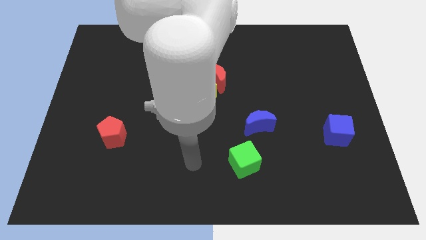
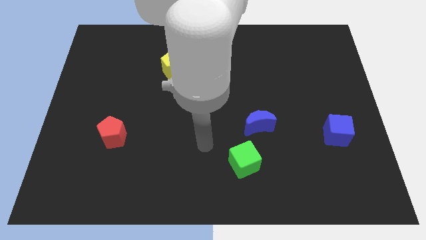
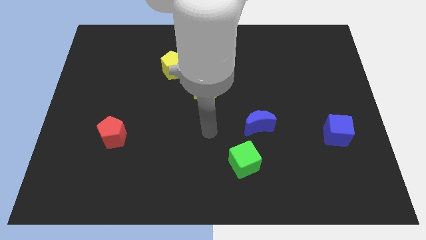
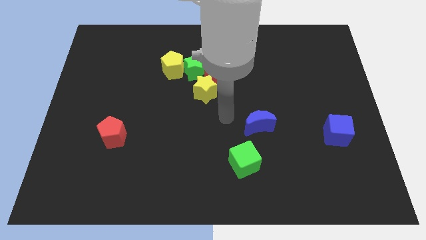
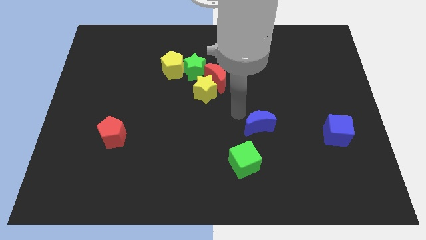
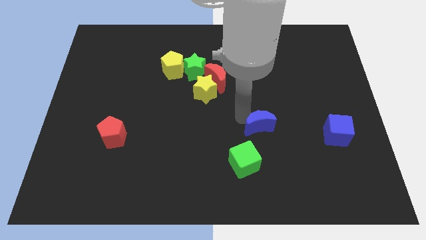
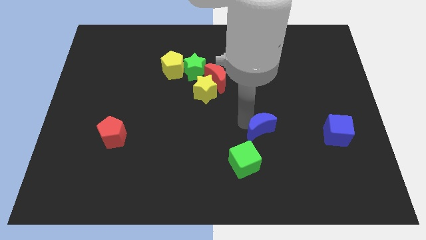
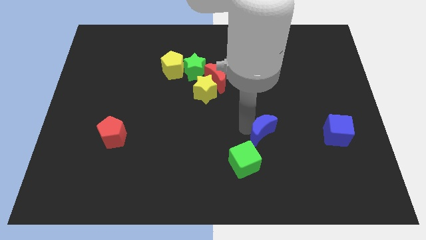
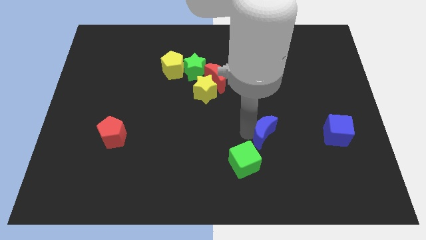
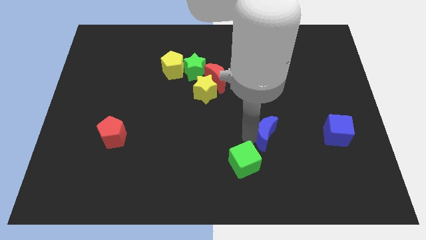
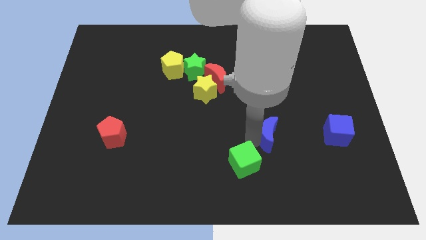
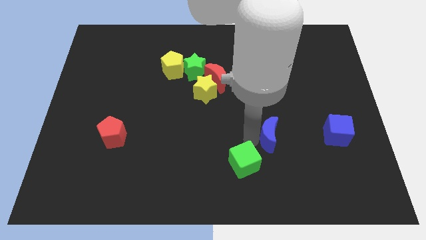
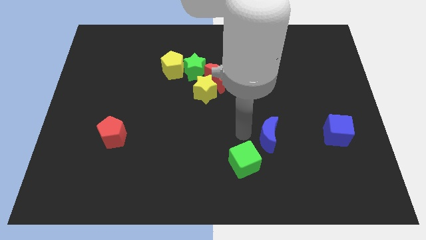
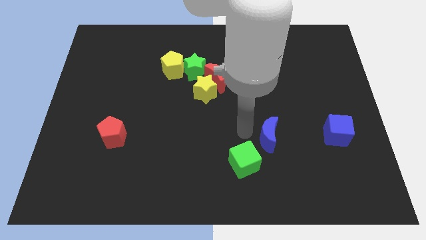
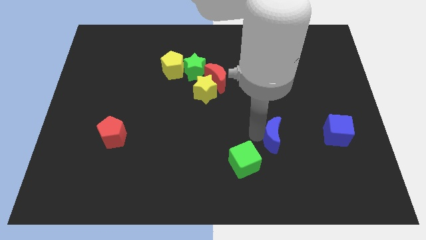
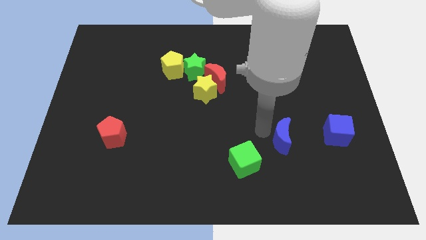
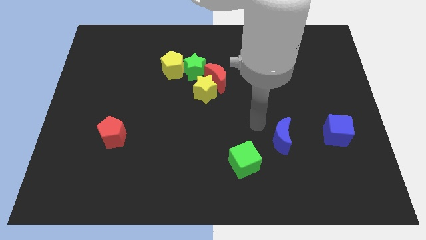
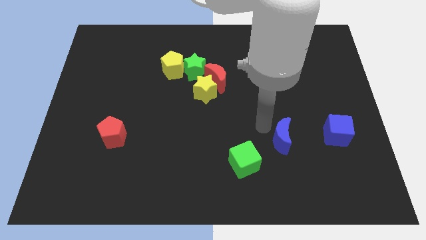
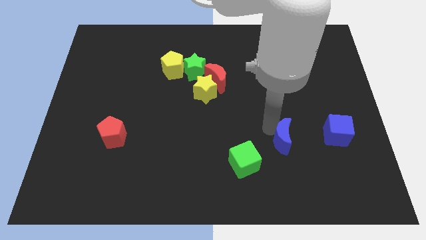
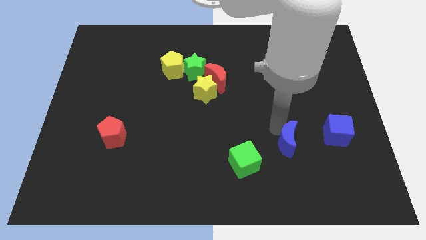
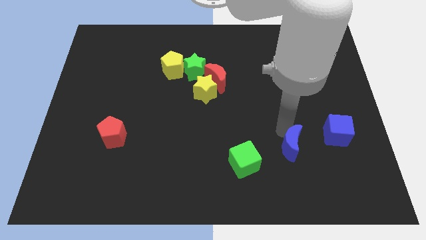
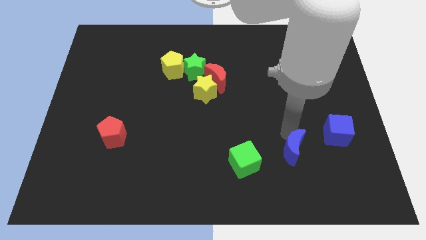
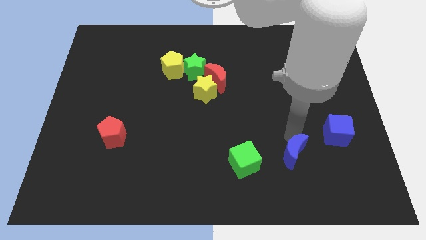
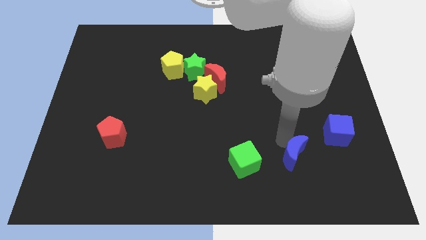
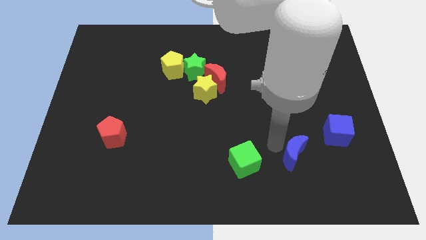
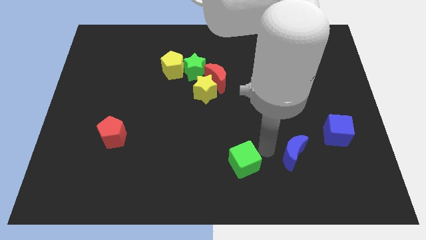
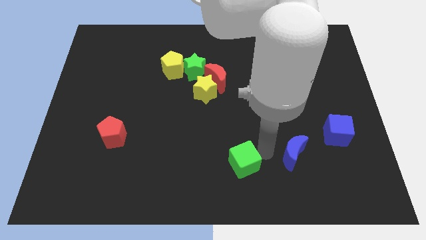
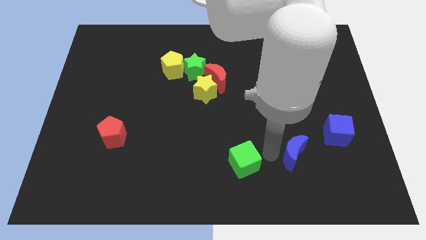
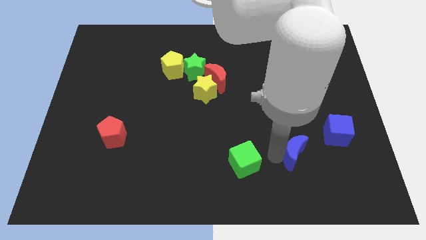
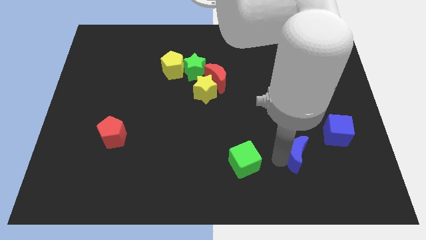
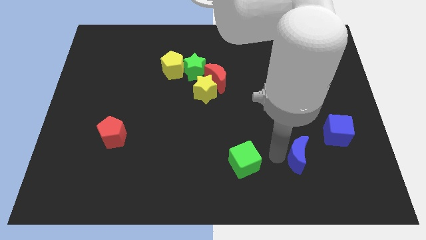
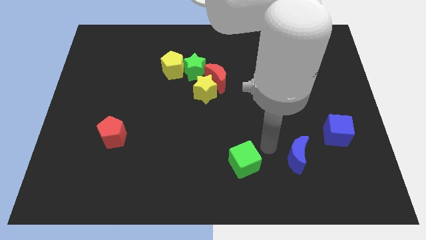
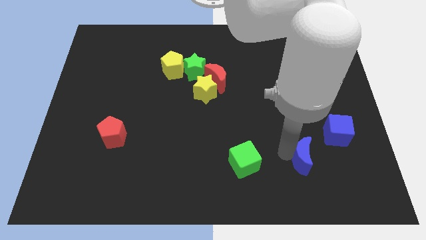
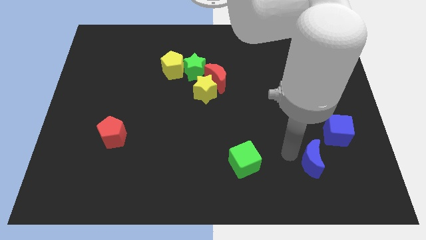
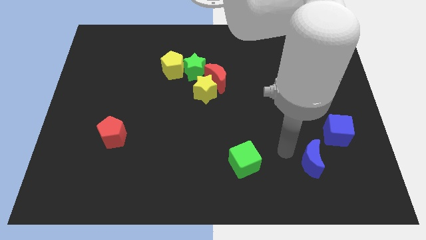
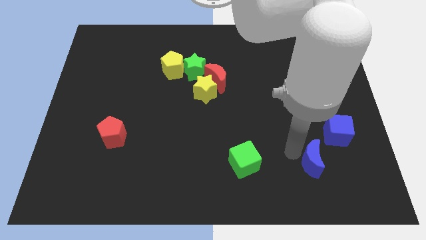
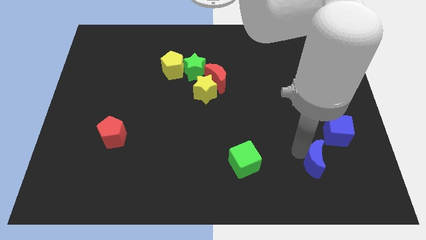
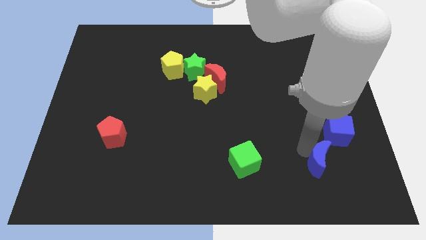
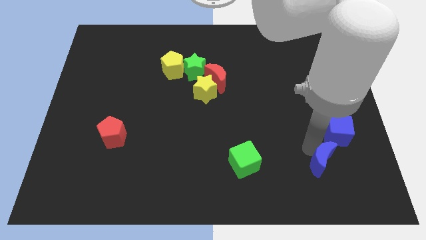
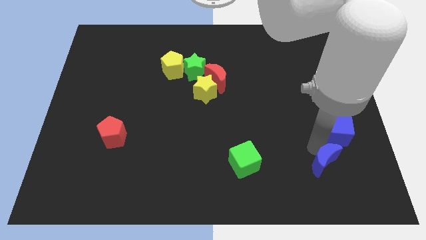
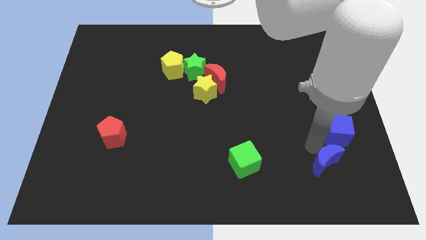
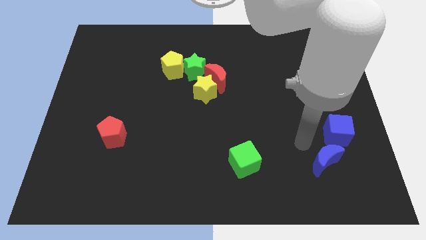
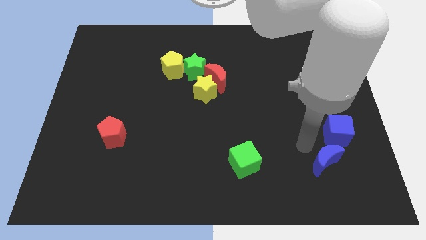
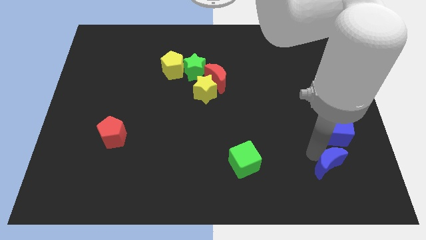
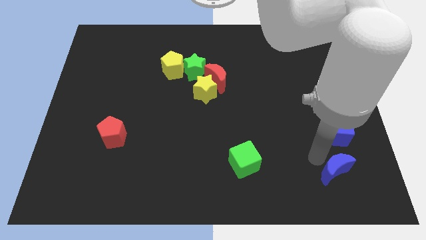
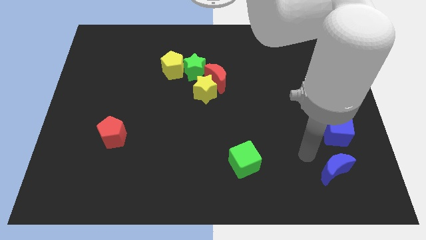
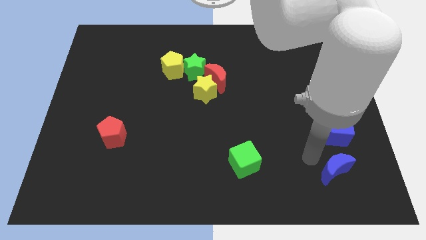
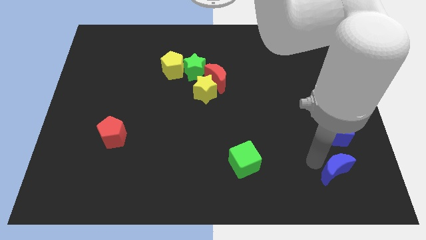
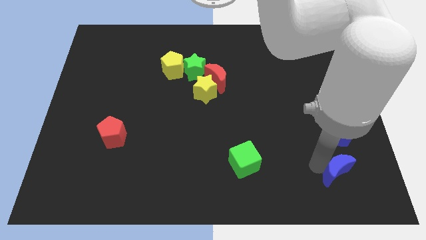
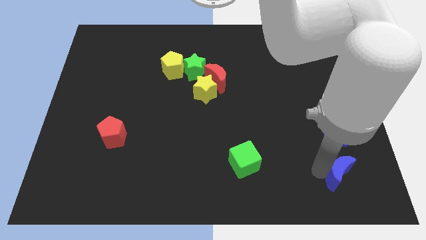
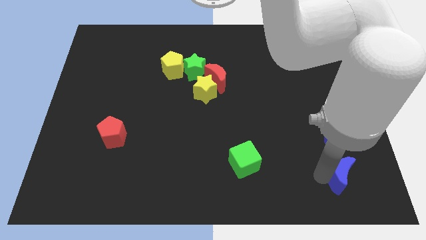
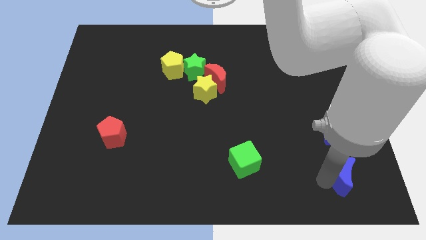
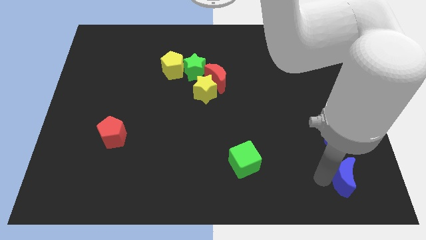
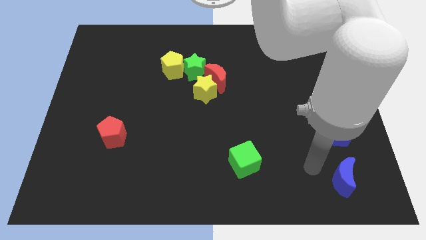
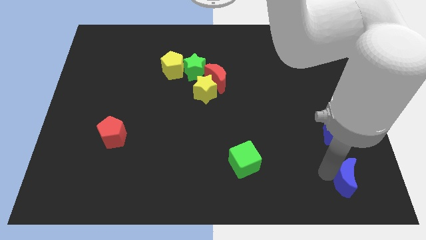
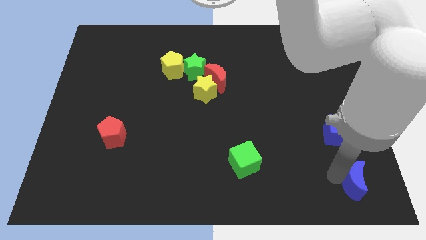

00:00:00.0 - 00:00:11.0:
put the blue moon to the bottom right of the board

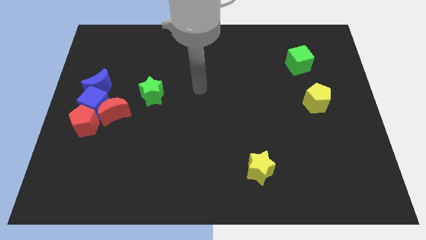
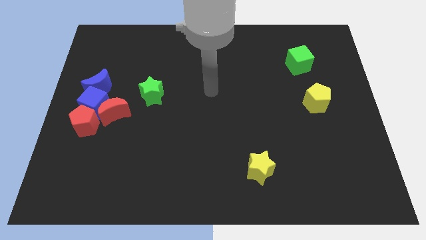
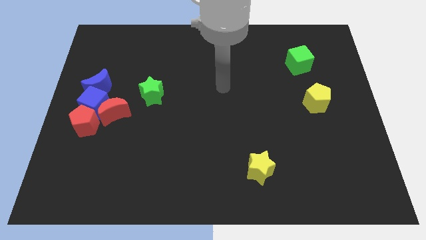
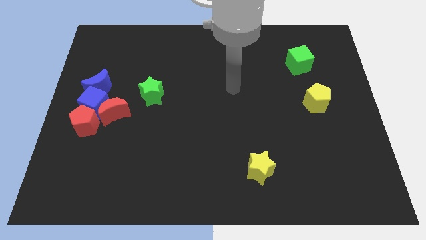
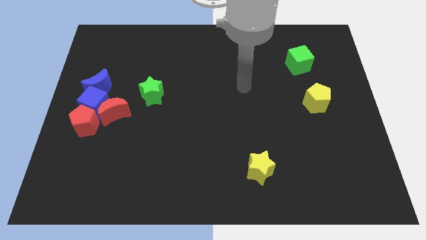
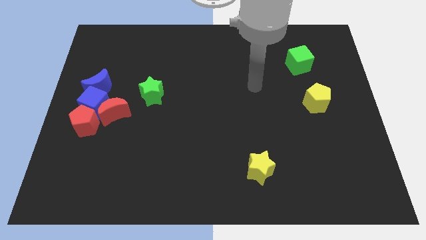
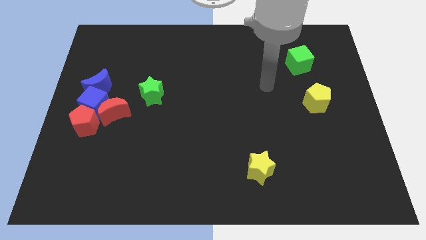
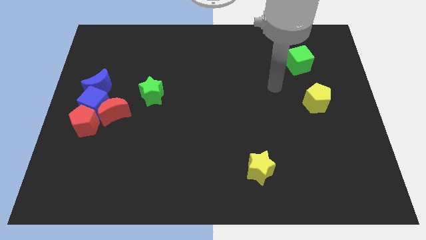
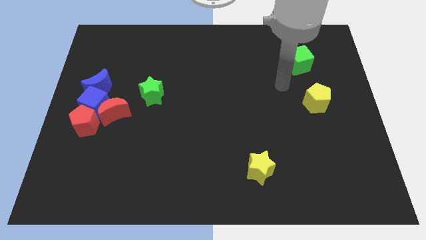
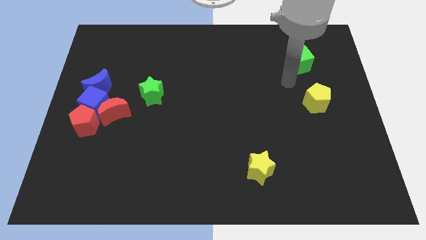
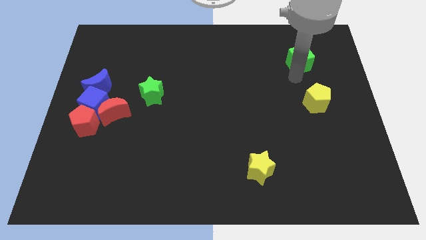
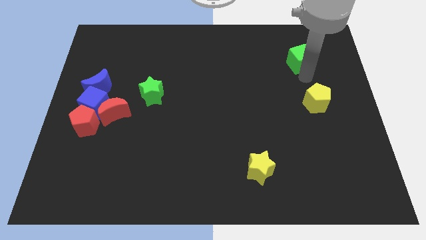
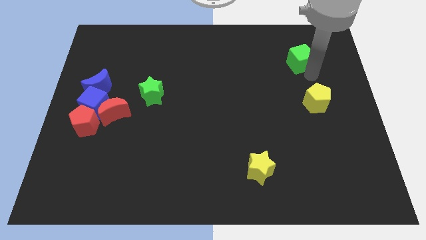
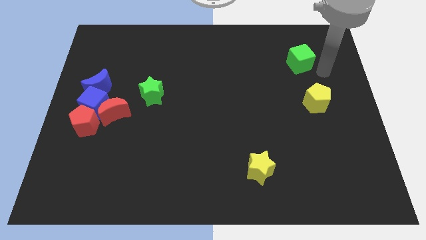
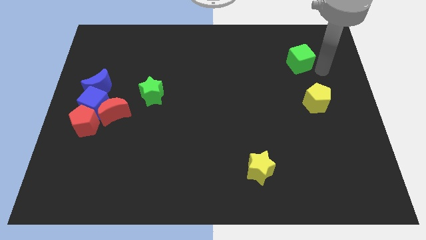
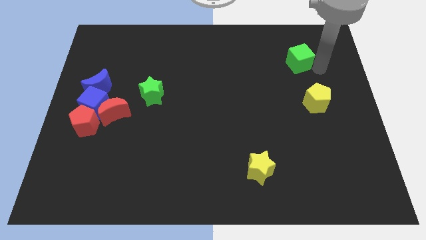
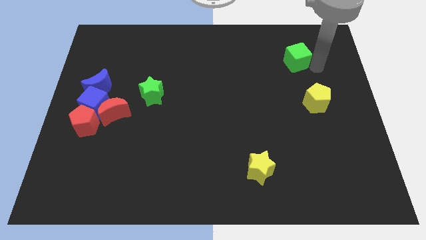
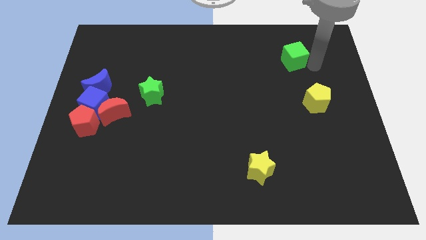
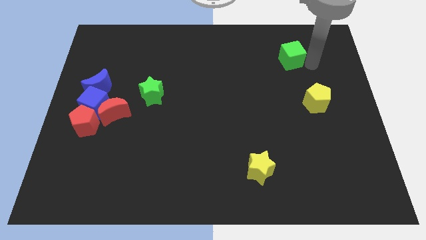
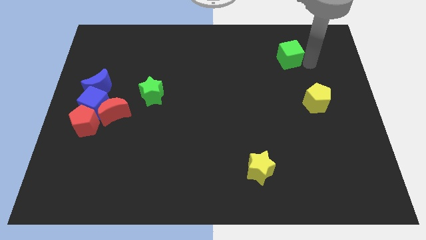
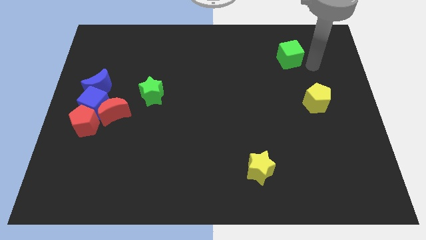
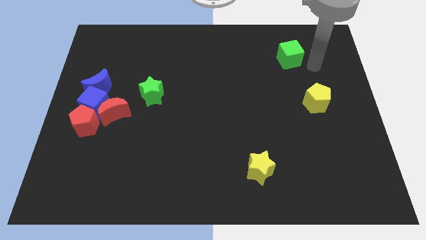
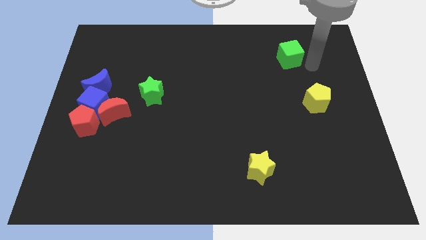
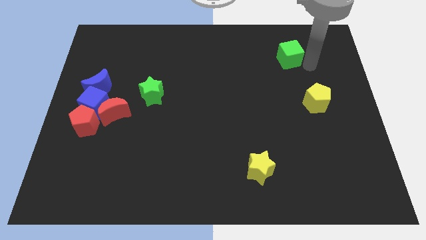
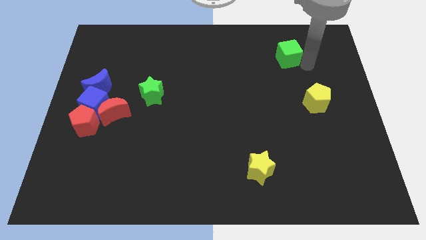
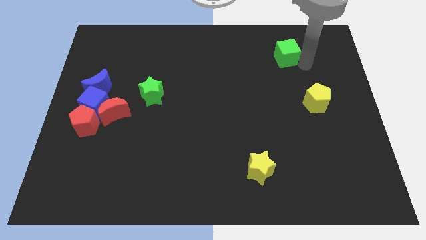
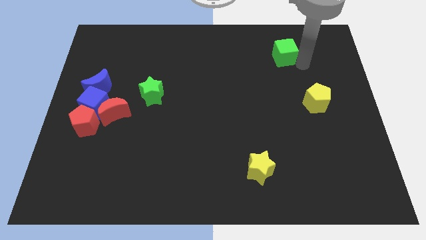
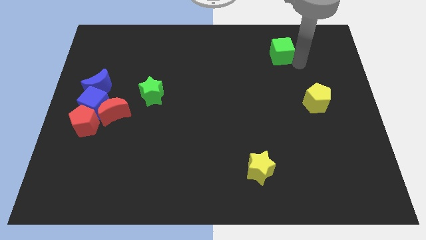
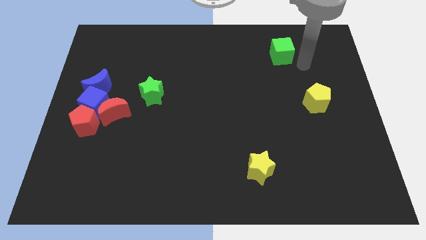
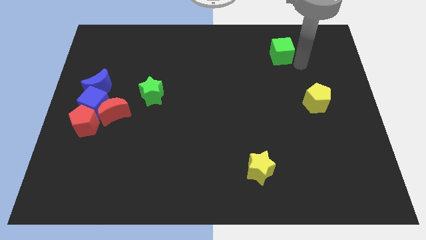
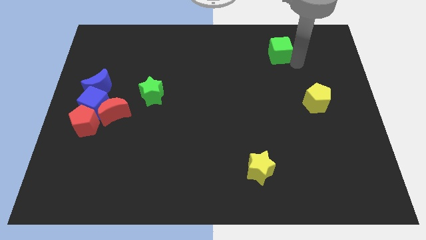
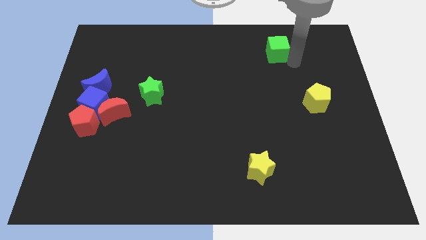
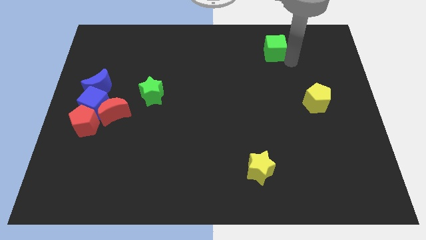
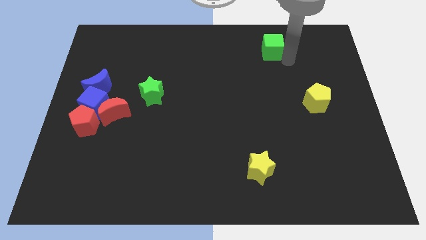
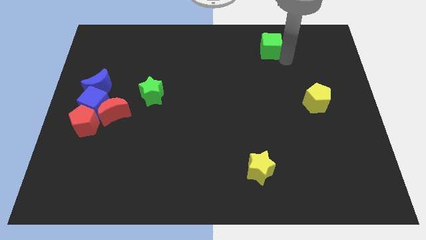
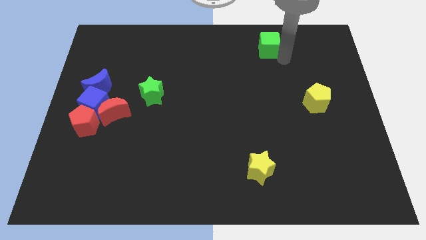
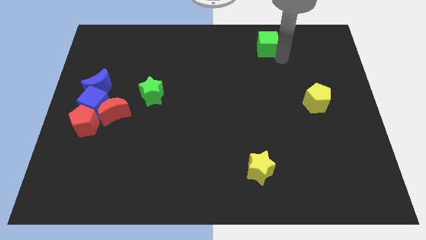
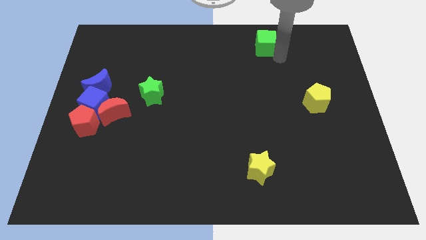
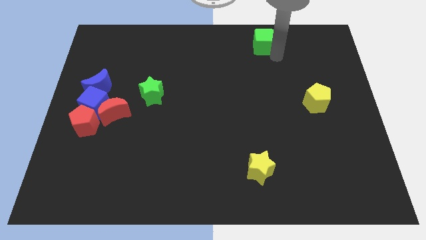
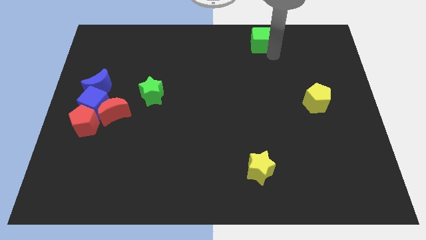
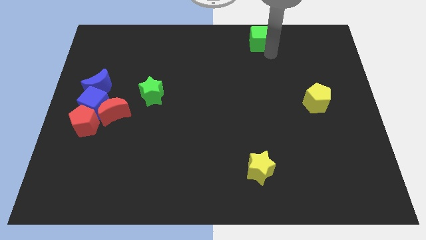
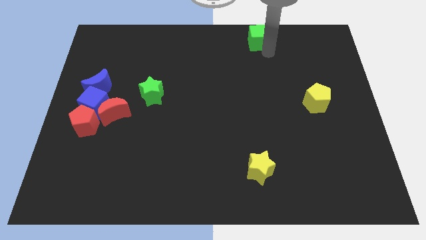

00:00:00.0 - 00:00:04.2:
slide the green cube to the top side
